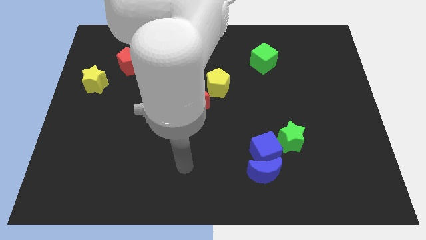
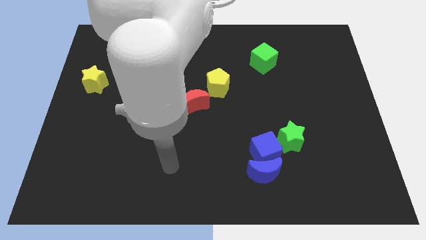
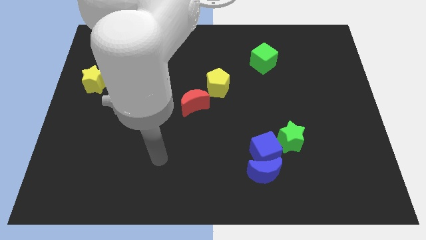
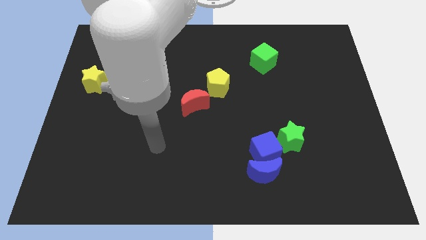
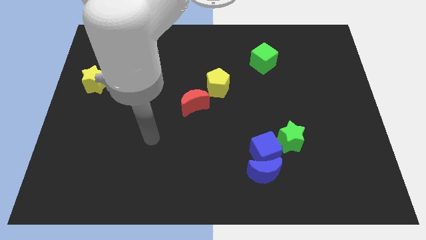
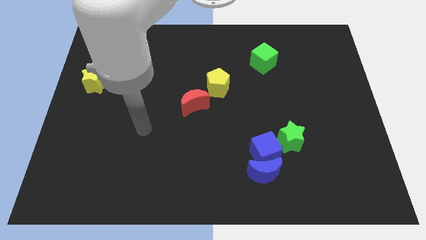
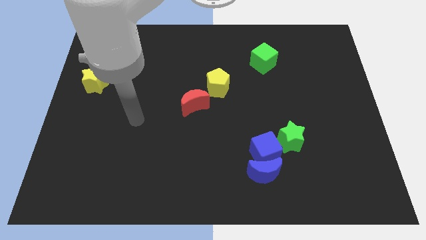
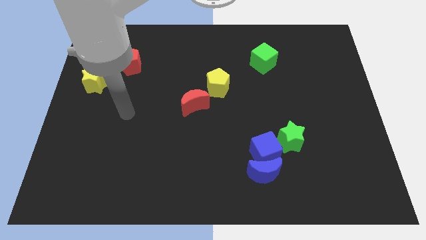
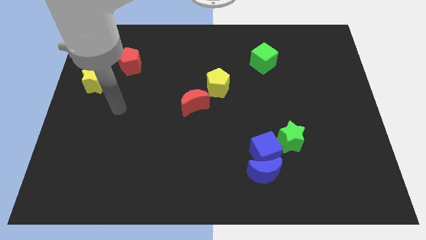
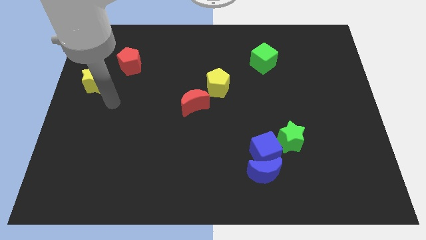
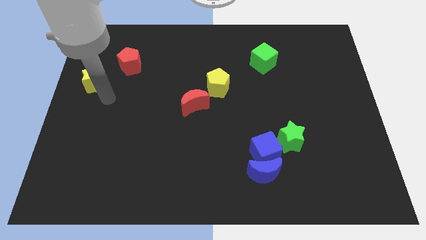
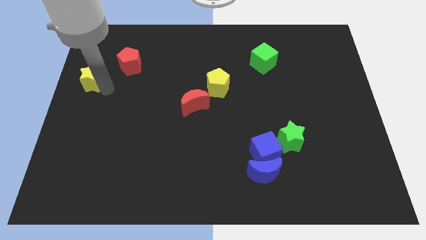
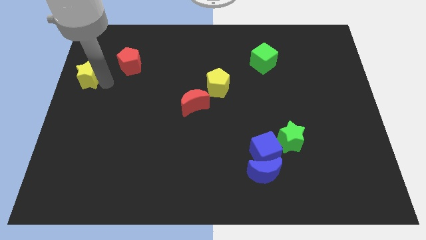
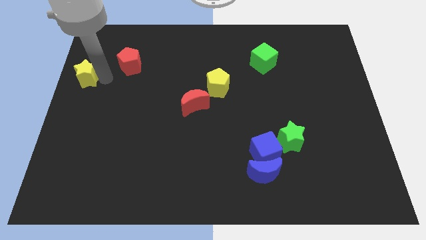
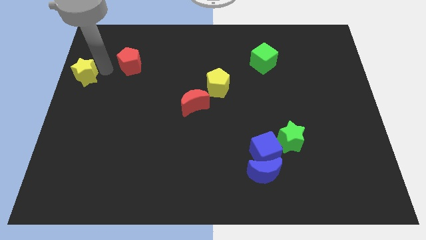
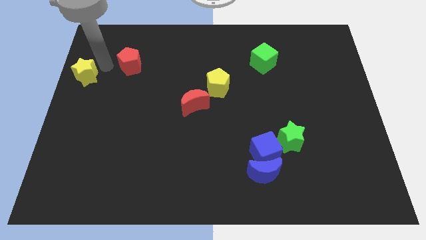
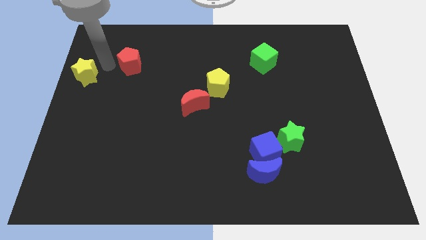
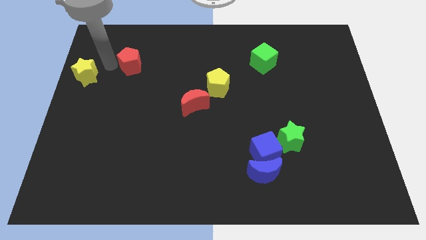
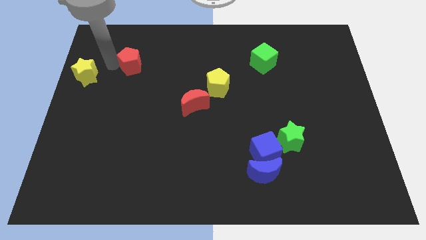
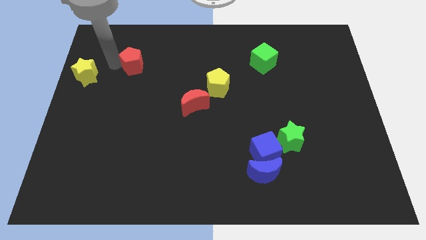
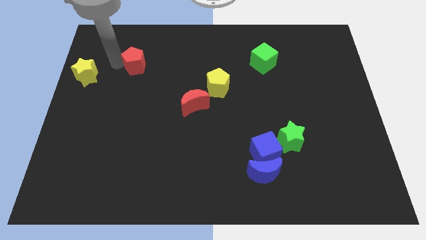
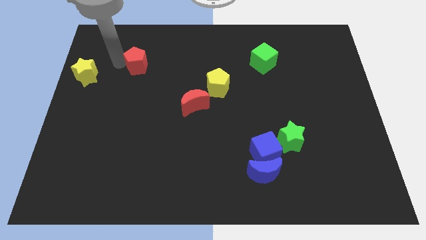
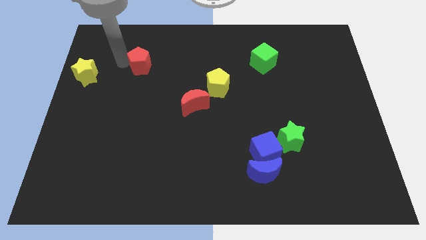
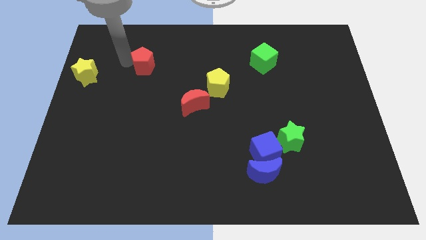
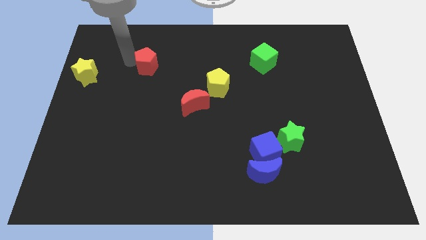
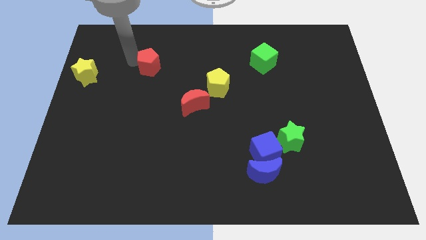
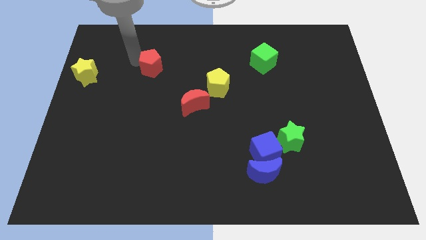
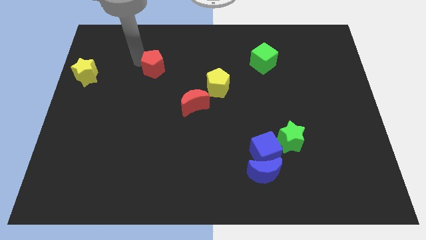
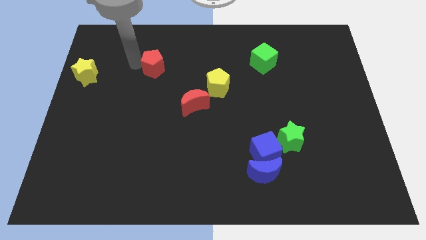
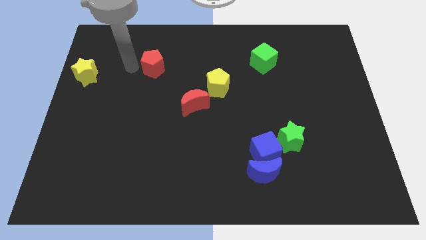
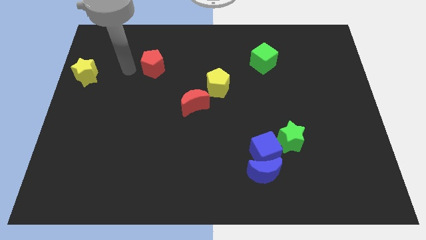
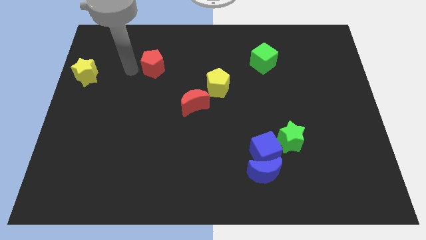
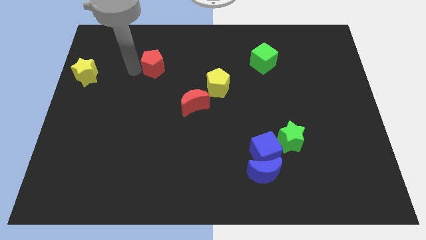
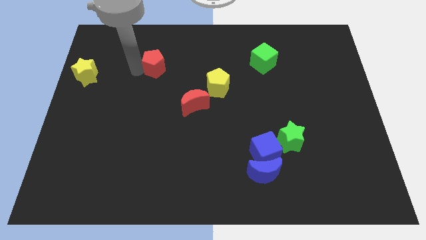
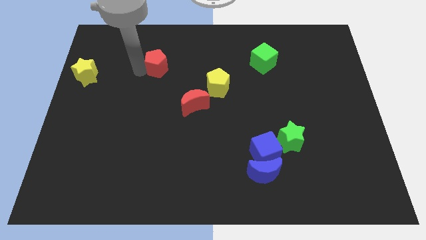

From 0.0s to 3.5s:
slide the red pentagon a bit to the right

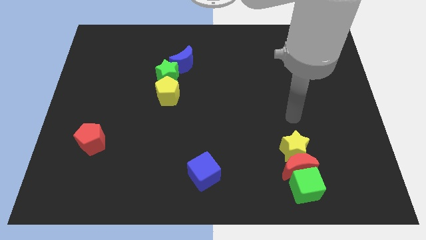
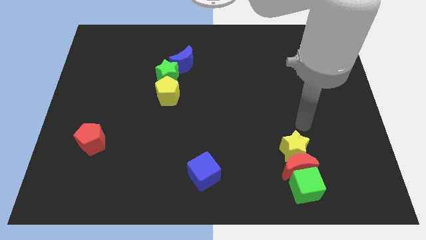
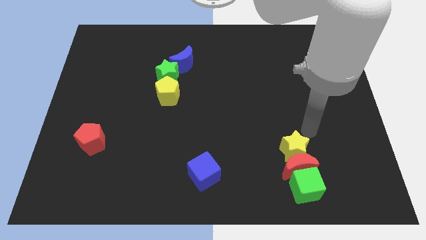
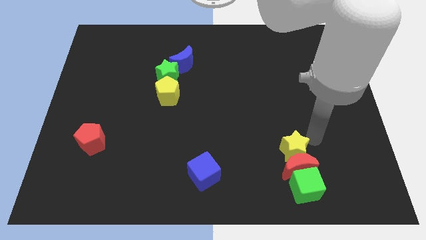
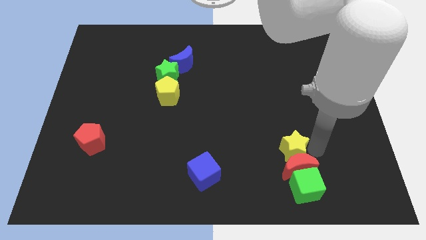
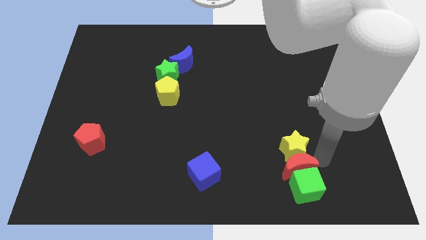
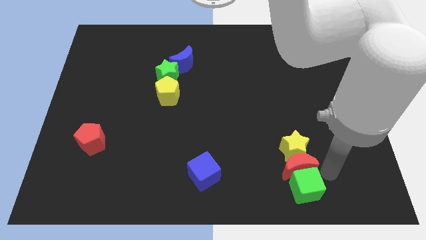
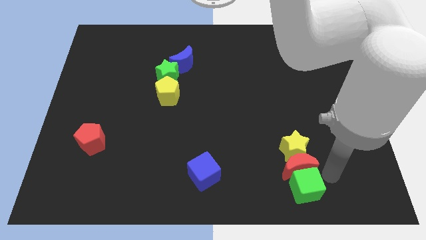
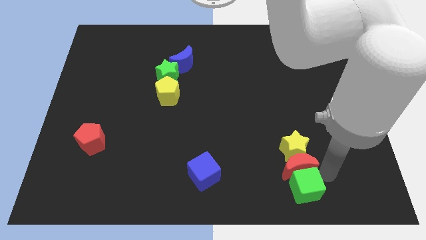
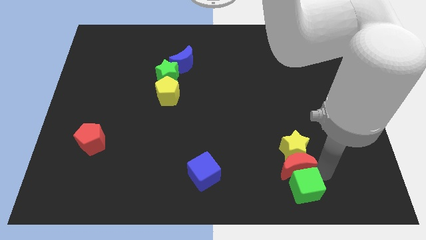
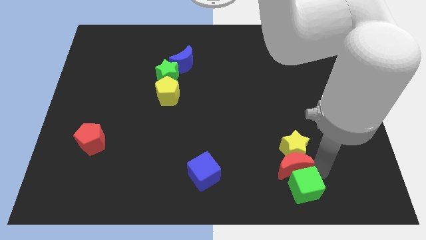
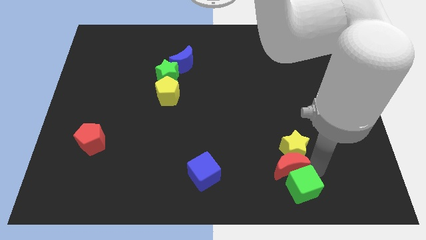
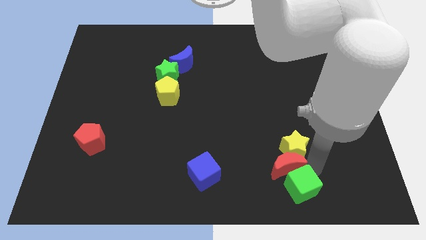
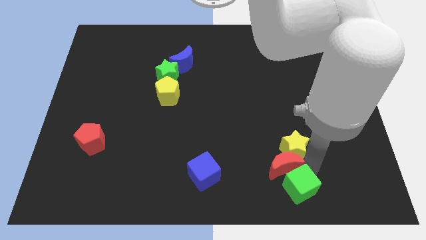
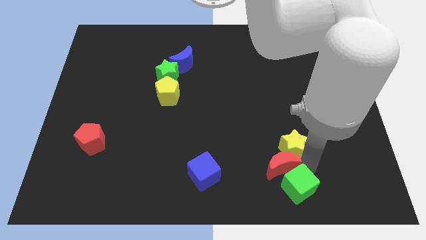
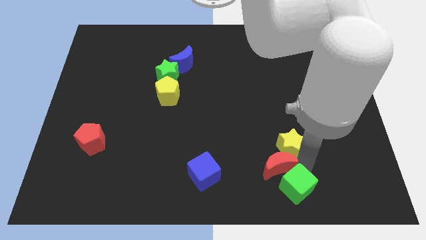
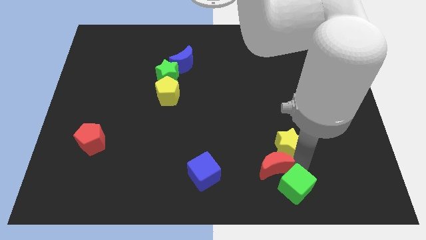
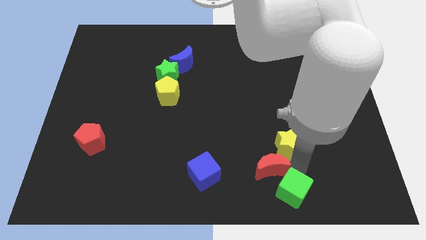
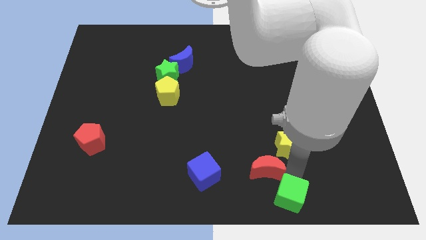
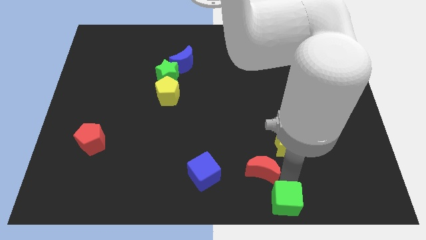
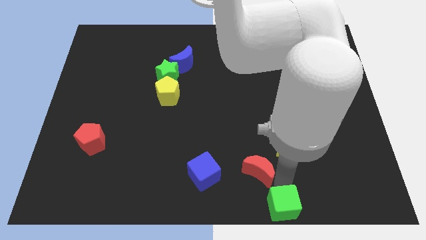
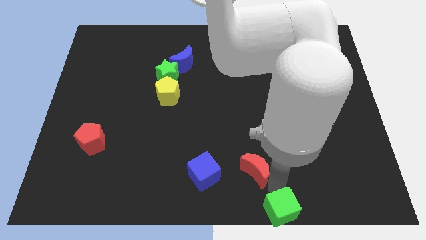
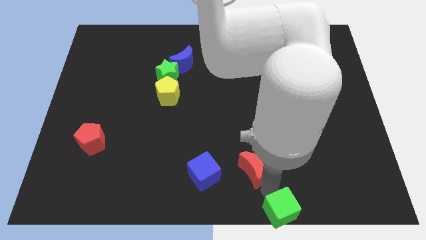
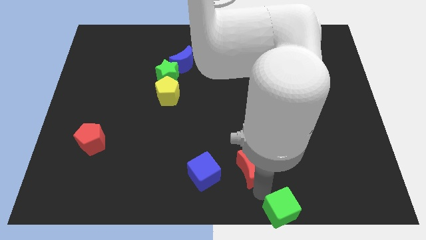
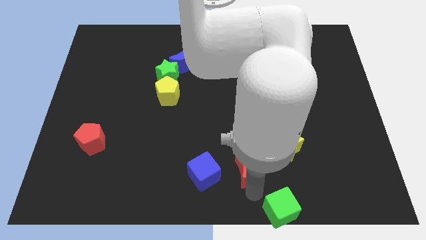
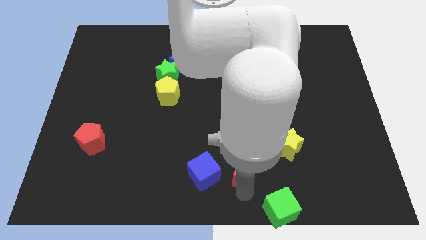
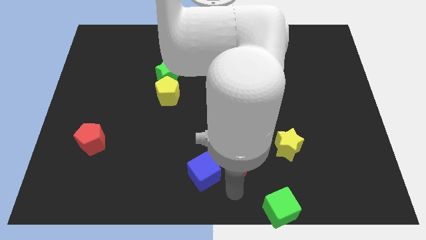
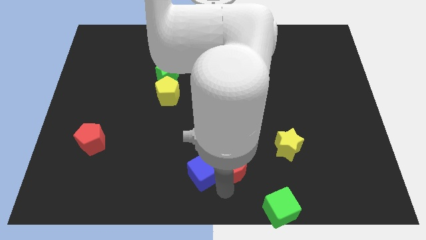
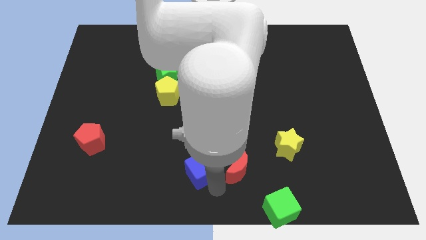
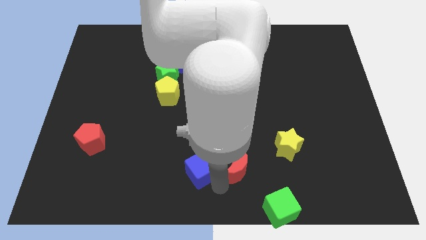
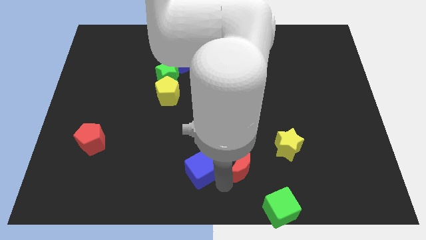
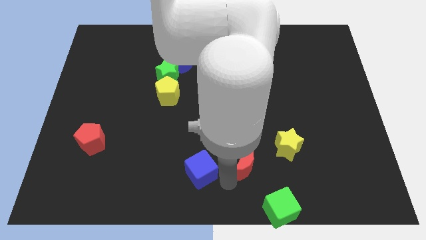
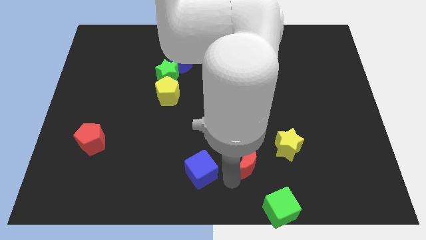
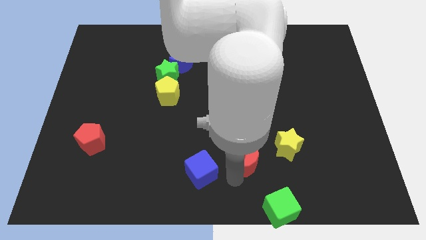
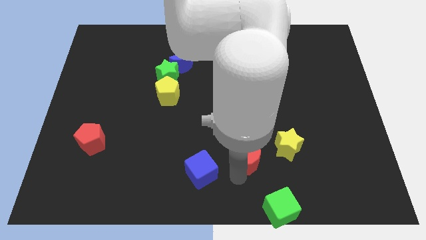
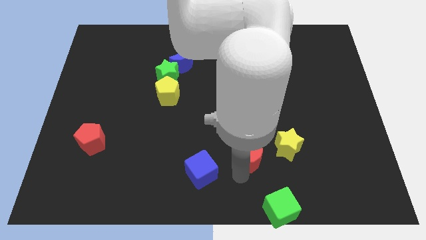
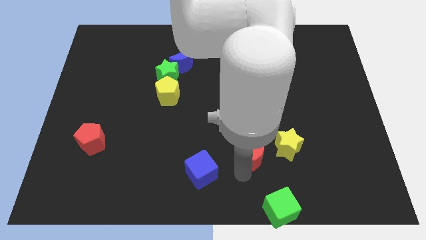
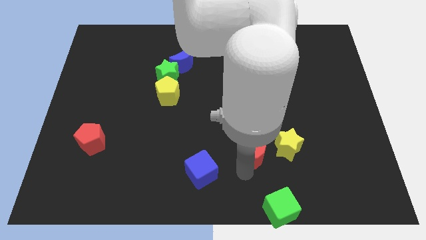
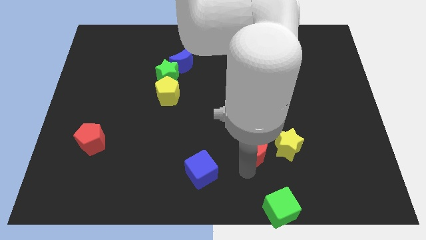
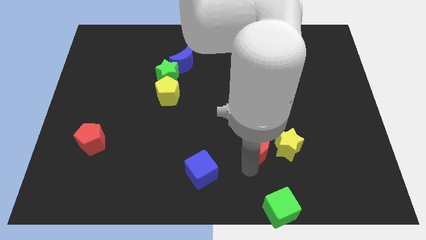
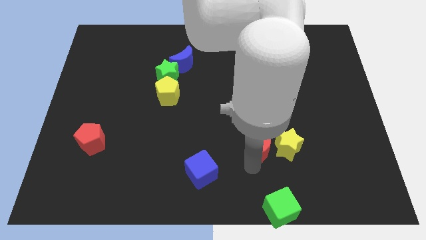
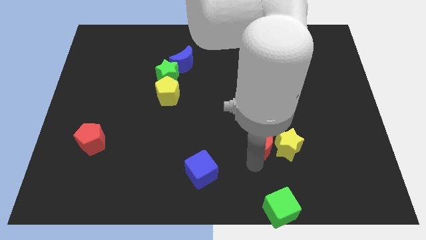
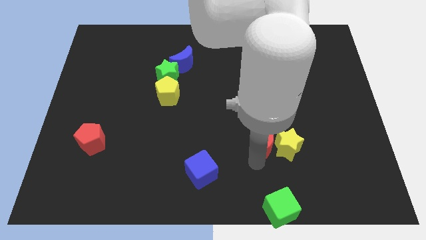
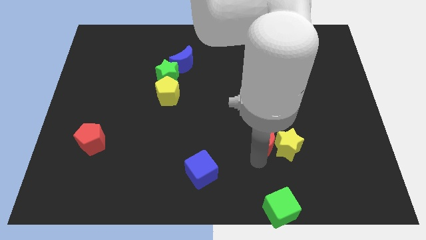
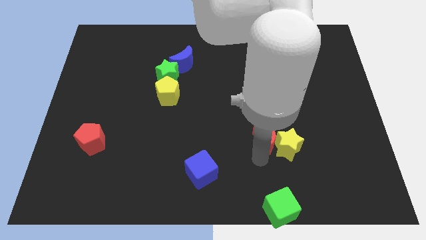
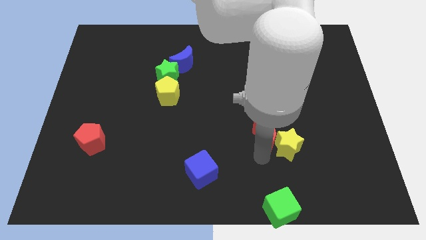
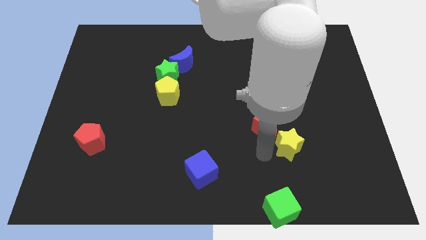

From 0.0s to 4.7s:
slide the red moon slightly upwards

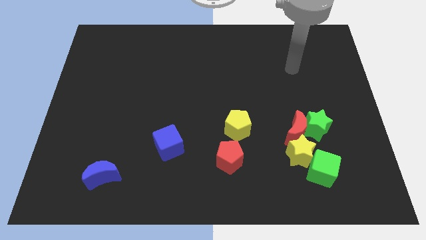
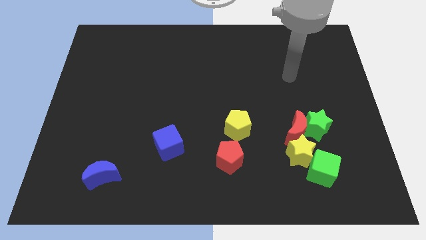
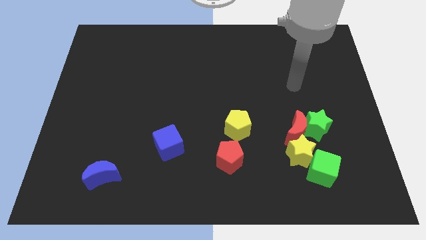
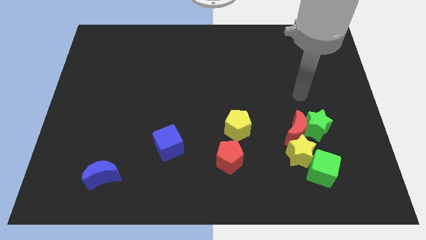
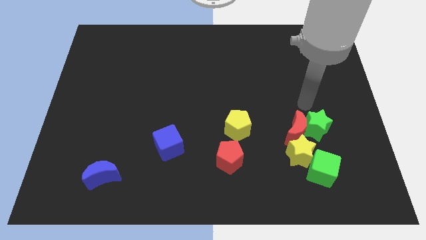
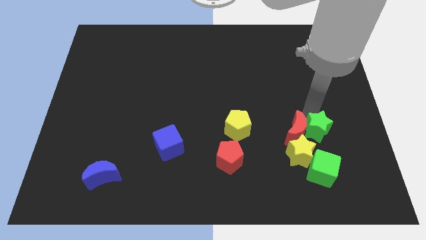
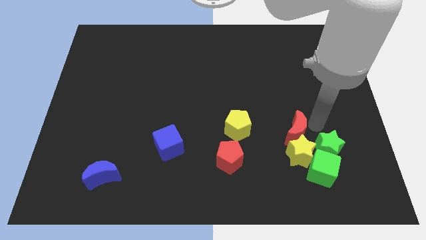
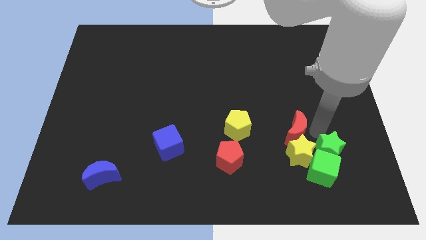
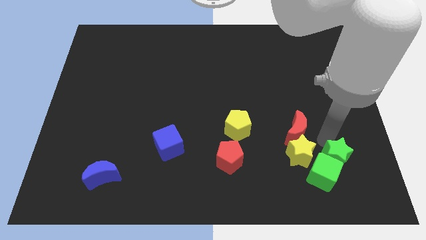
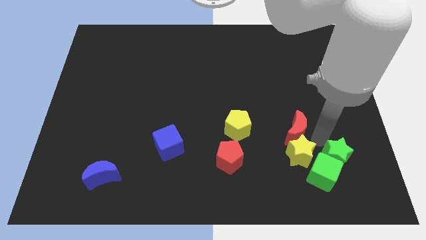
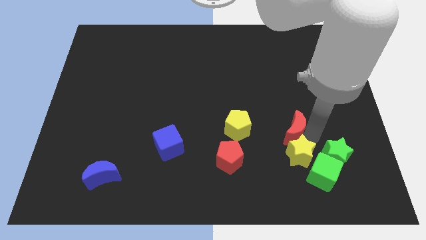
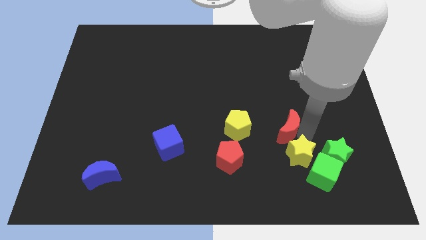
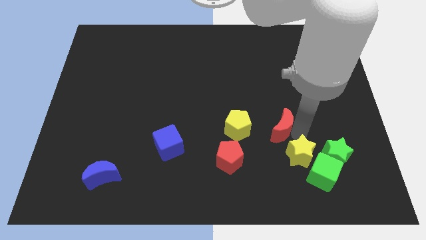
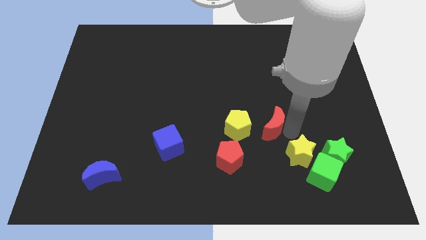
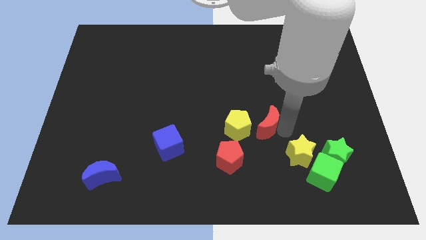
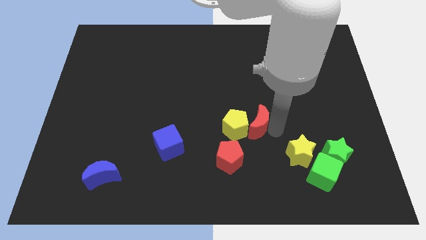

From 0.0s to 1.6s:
slightly slide the red moon to the left
